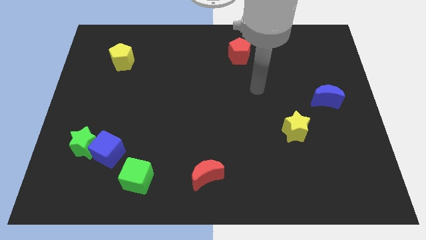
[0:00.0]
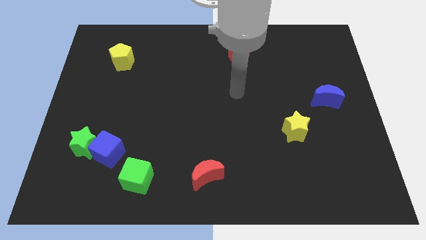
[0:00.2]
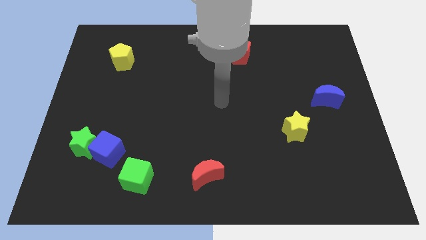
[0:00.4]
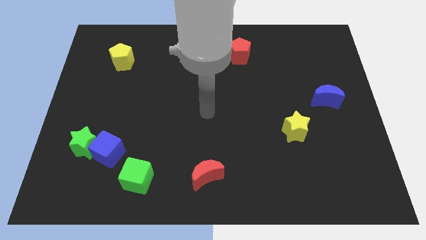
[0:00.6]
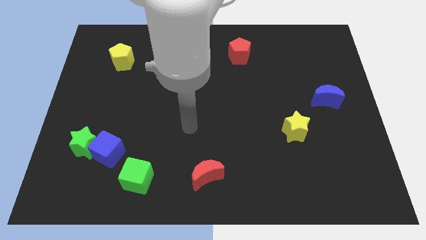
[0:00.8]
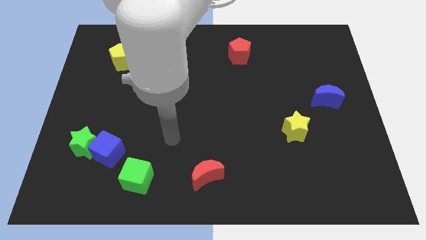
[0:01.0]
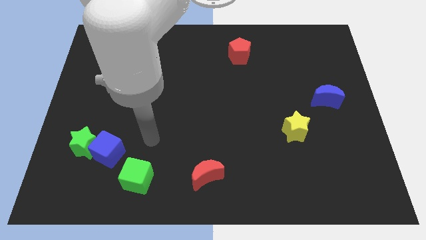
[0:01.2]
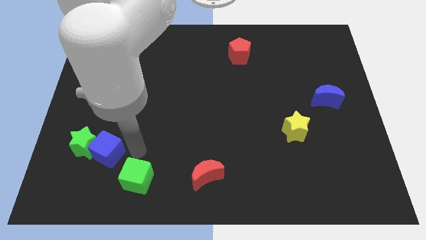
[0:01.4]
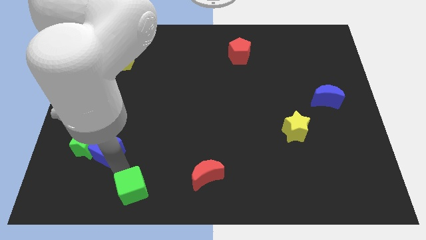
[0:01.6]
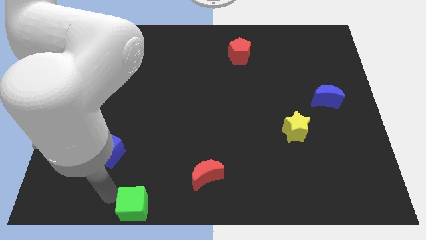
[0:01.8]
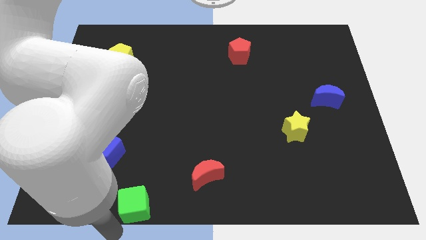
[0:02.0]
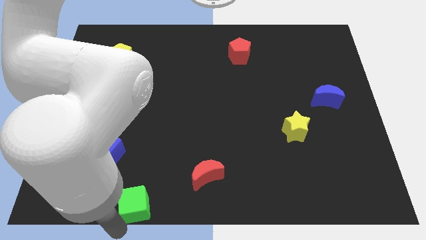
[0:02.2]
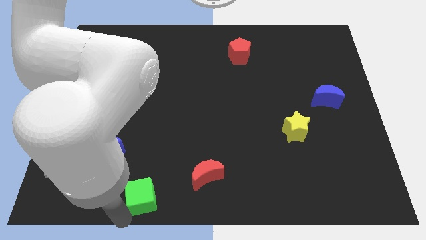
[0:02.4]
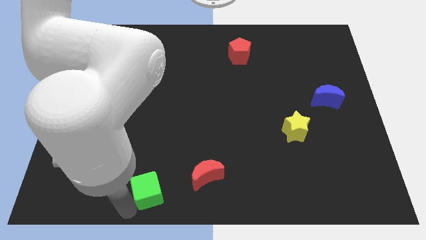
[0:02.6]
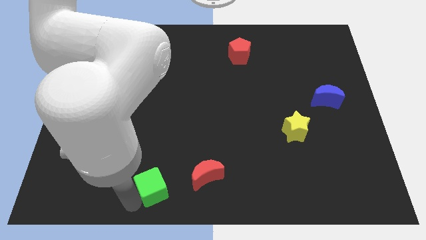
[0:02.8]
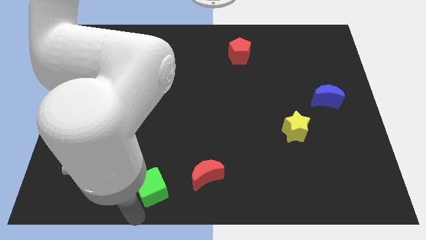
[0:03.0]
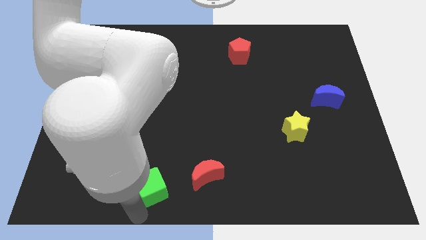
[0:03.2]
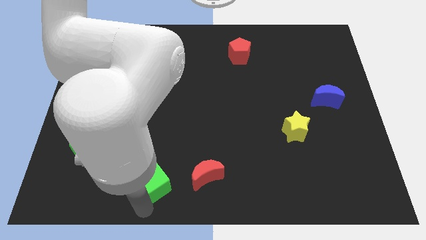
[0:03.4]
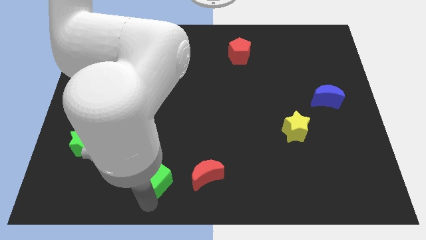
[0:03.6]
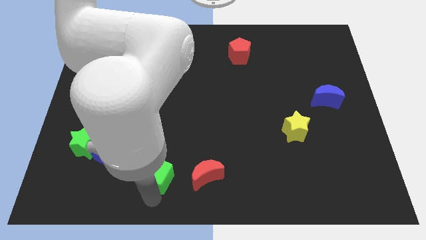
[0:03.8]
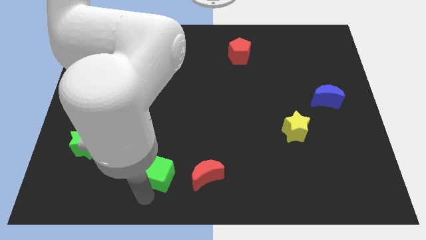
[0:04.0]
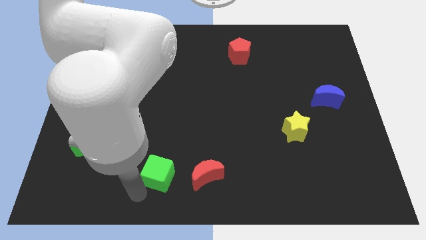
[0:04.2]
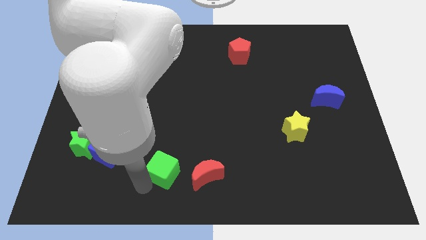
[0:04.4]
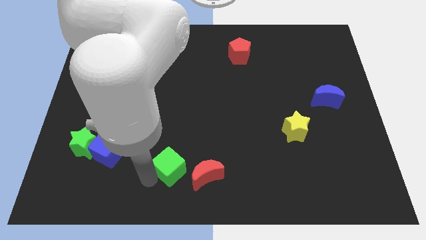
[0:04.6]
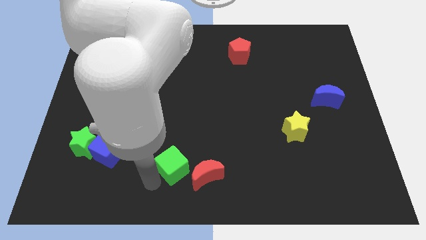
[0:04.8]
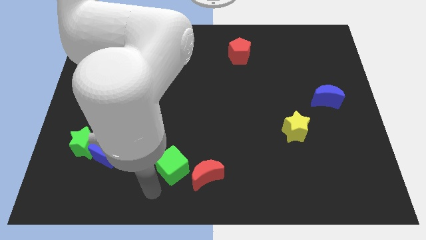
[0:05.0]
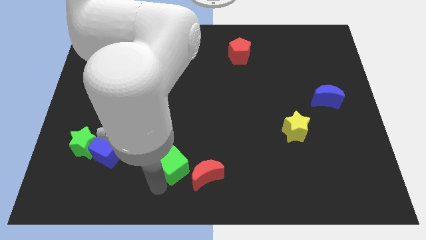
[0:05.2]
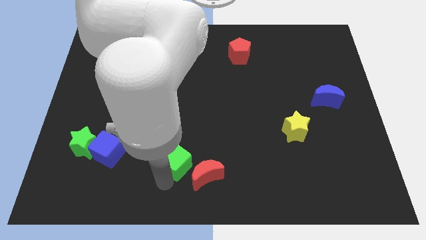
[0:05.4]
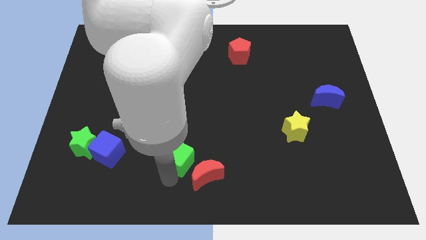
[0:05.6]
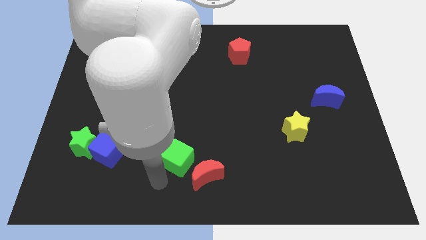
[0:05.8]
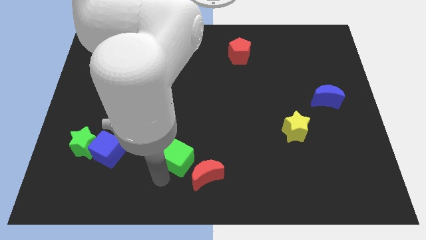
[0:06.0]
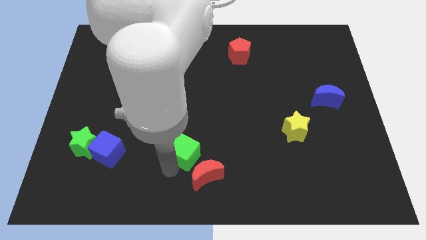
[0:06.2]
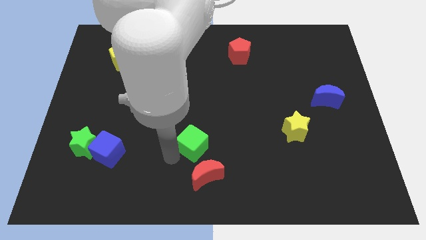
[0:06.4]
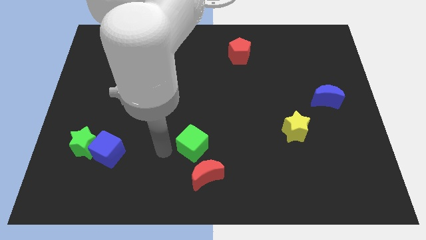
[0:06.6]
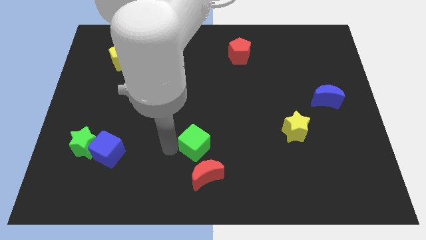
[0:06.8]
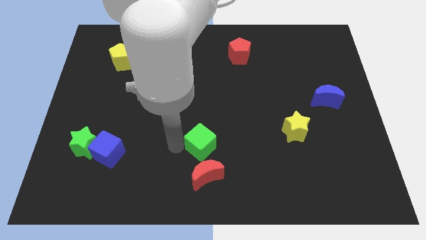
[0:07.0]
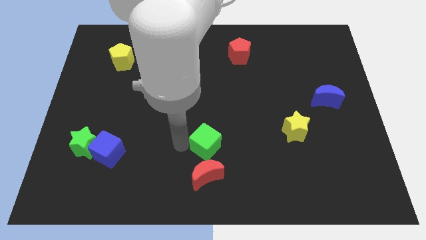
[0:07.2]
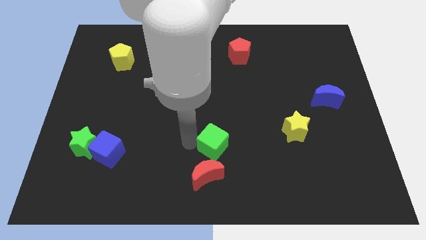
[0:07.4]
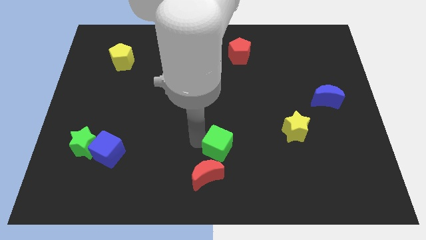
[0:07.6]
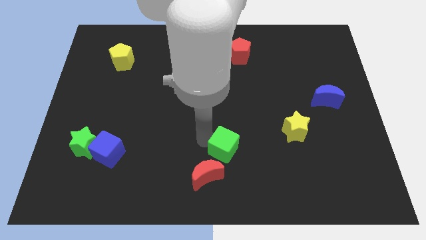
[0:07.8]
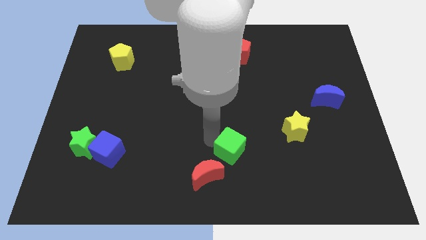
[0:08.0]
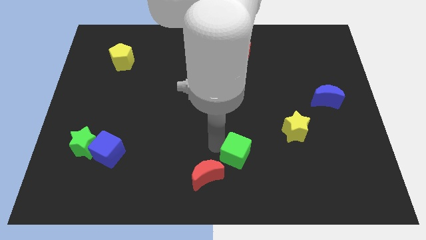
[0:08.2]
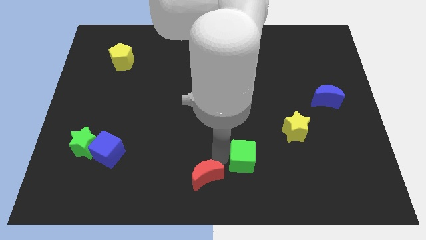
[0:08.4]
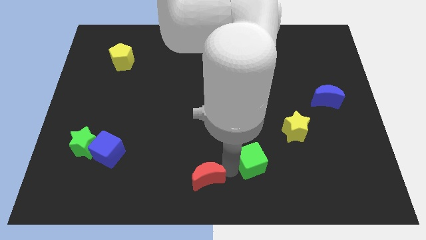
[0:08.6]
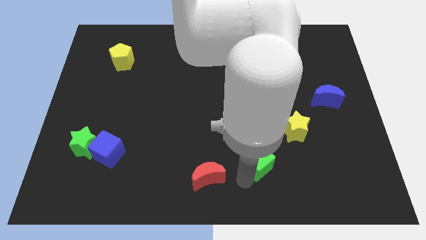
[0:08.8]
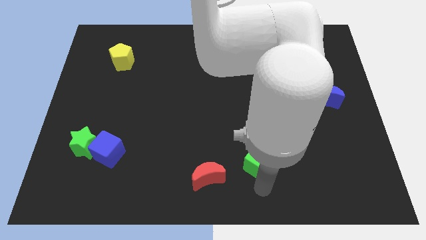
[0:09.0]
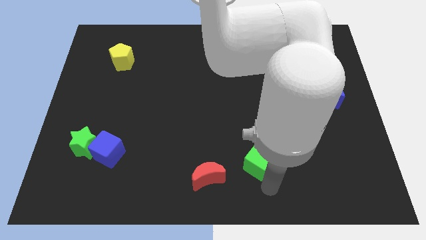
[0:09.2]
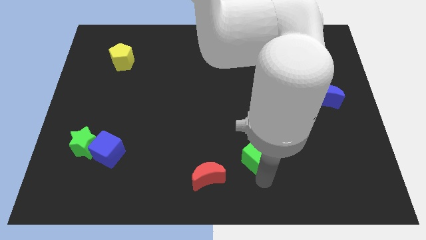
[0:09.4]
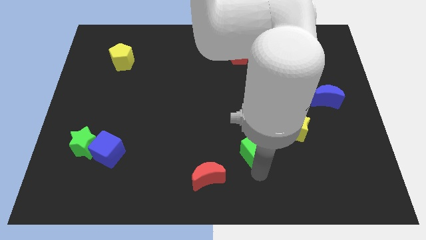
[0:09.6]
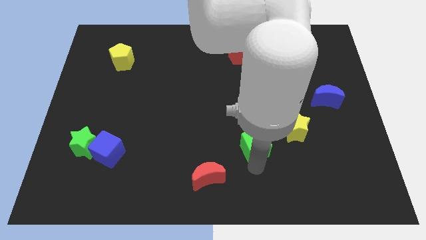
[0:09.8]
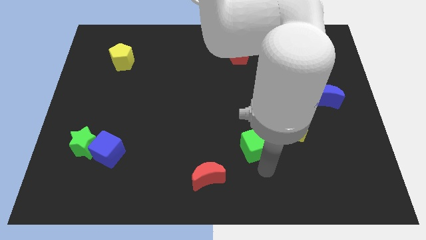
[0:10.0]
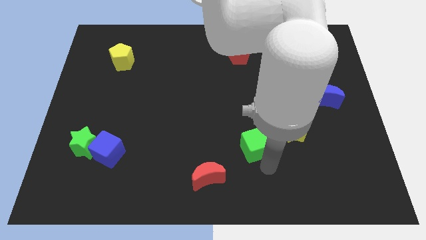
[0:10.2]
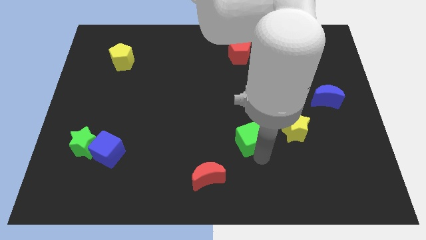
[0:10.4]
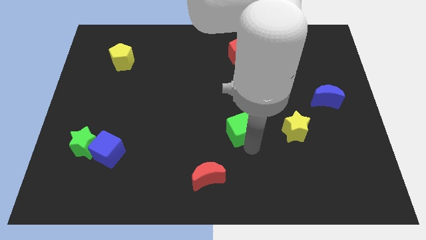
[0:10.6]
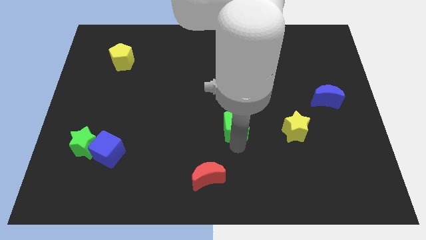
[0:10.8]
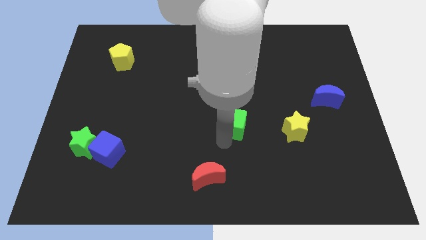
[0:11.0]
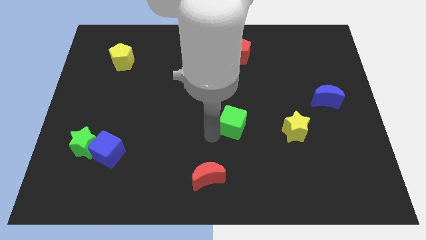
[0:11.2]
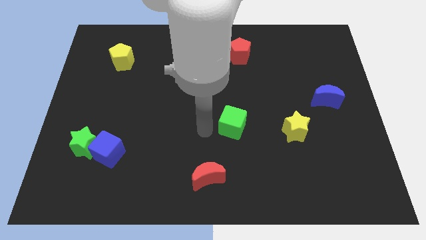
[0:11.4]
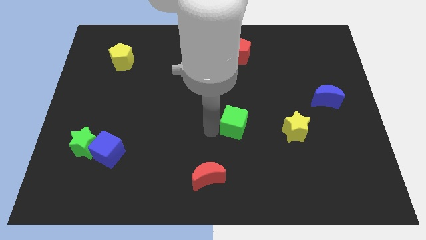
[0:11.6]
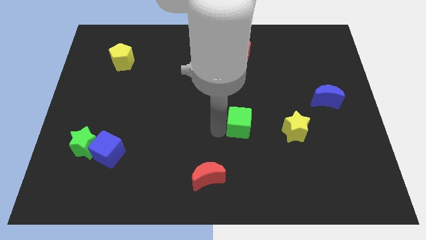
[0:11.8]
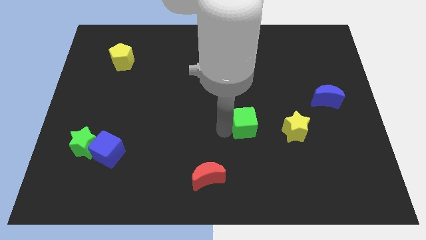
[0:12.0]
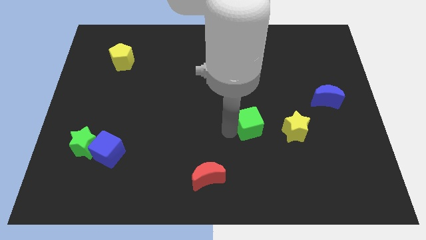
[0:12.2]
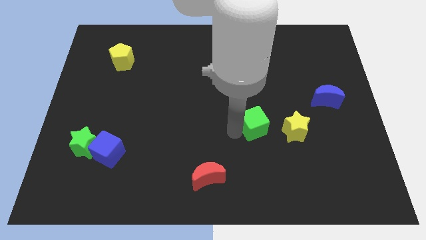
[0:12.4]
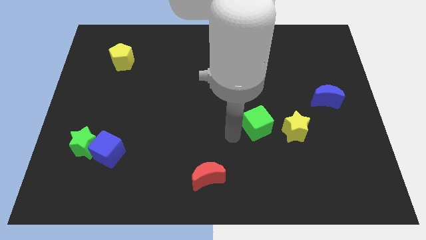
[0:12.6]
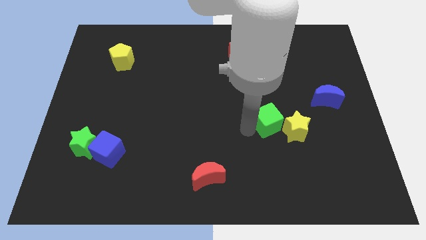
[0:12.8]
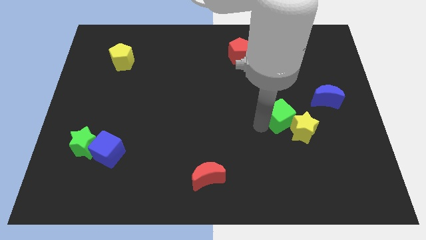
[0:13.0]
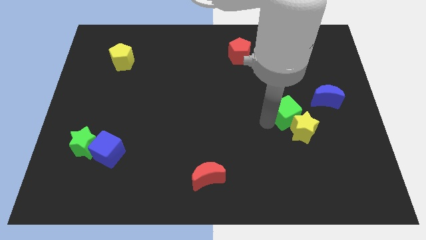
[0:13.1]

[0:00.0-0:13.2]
move the green cube to the bottom left of the blue moon

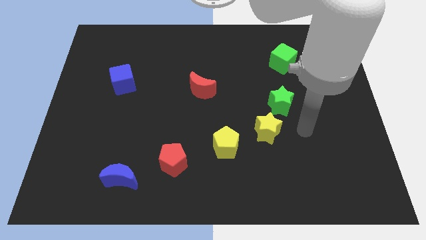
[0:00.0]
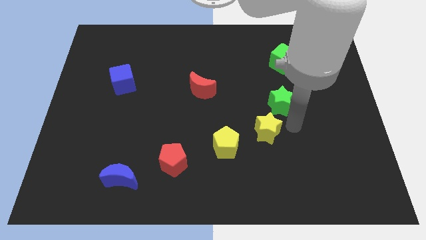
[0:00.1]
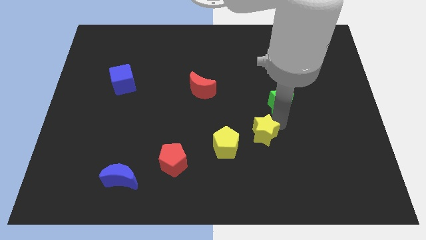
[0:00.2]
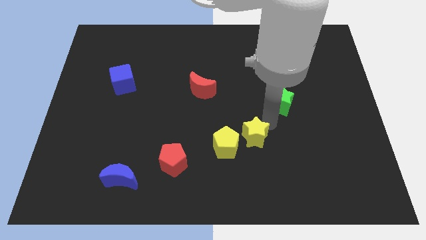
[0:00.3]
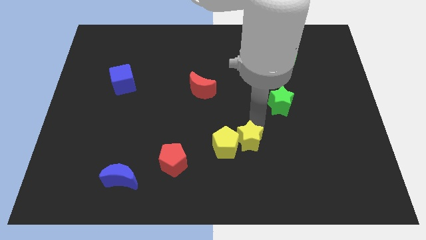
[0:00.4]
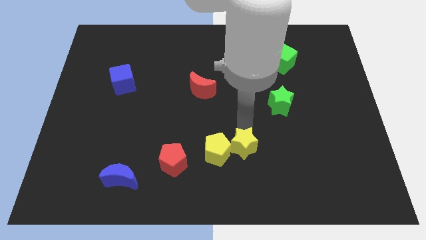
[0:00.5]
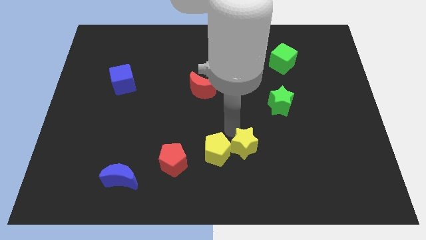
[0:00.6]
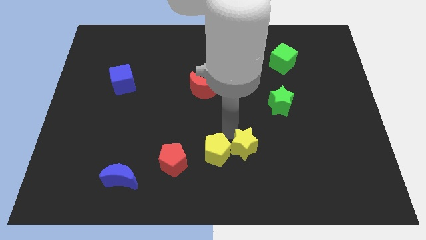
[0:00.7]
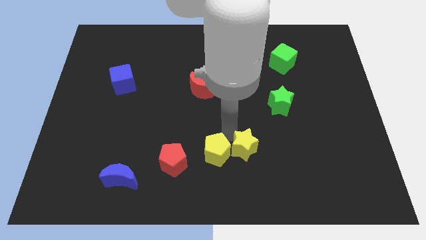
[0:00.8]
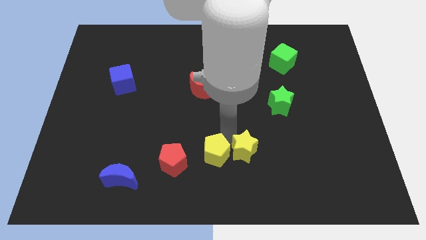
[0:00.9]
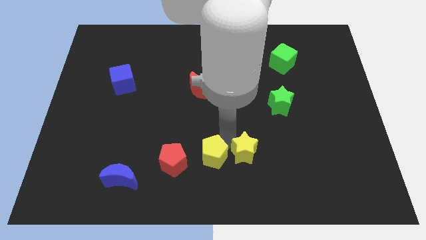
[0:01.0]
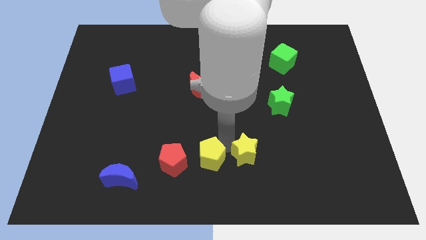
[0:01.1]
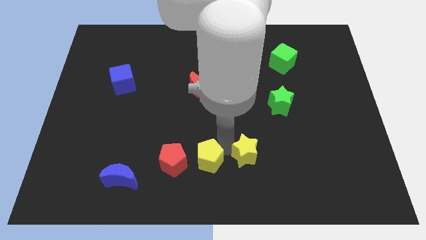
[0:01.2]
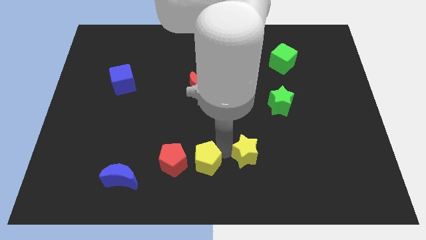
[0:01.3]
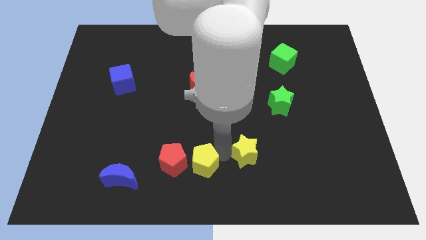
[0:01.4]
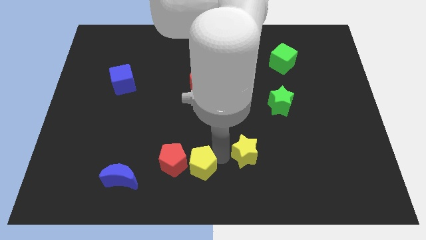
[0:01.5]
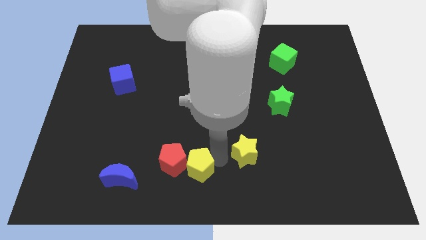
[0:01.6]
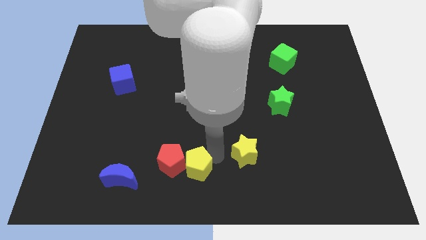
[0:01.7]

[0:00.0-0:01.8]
slide the yellow pentagon to the right of the blue moon
